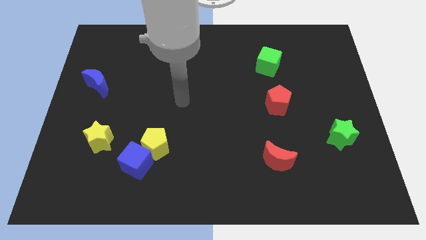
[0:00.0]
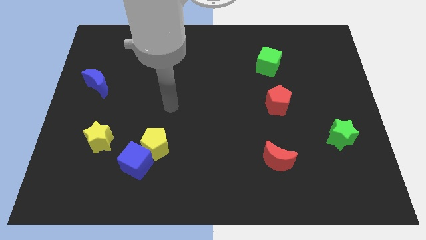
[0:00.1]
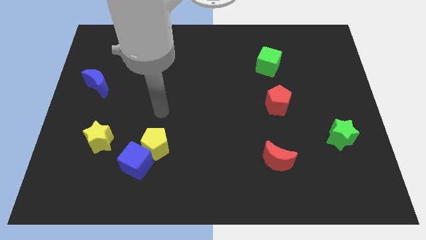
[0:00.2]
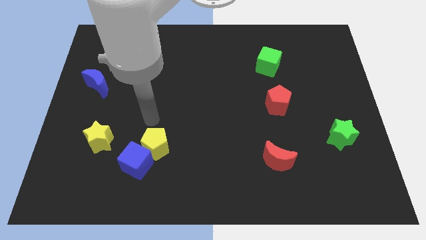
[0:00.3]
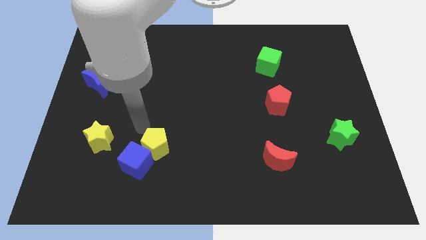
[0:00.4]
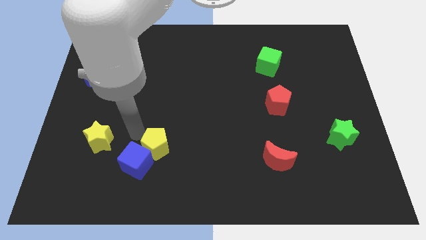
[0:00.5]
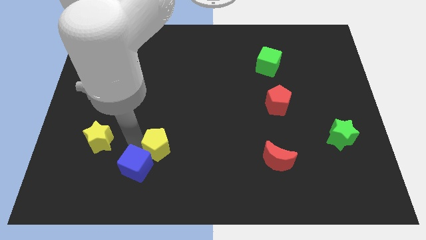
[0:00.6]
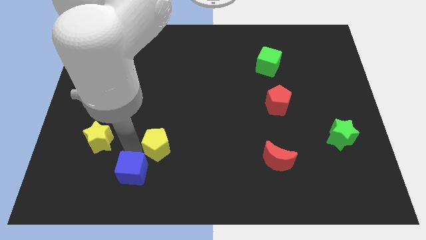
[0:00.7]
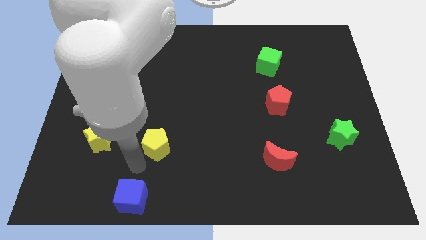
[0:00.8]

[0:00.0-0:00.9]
pull the yellow pentagon apart from the blue cube

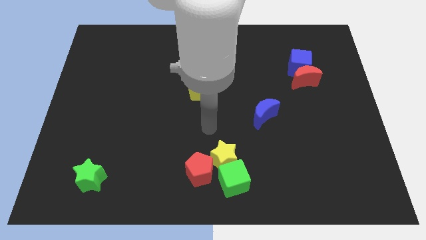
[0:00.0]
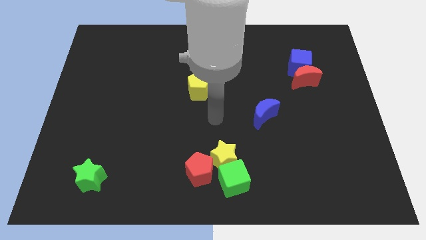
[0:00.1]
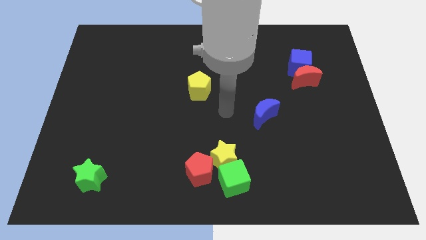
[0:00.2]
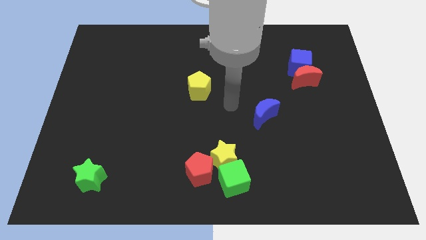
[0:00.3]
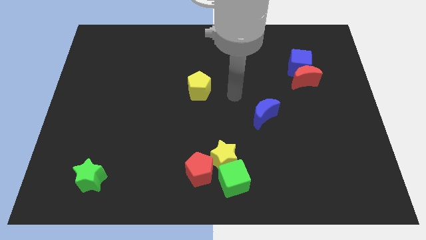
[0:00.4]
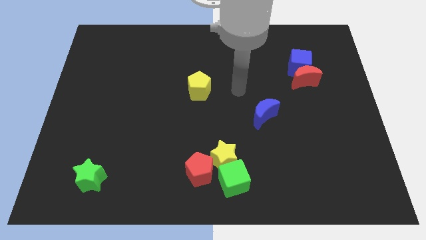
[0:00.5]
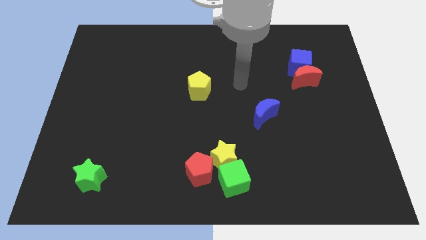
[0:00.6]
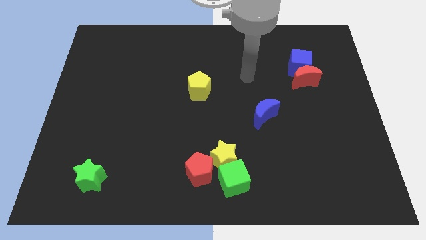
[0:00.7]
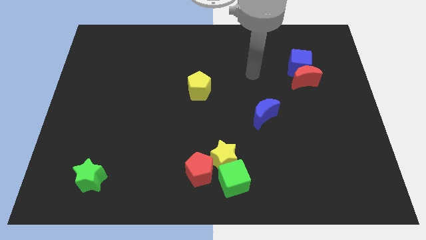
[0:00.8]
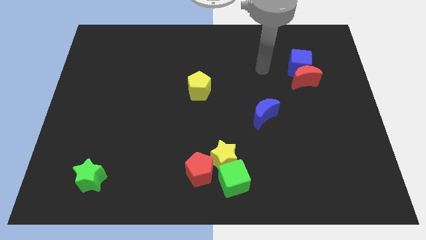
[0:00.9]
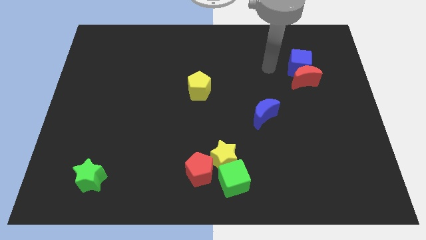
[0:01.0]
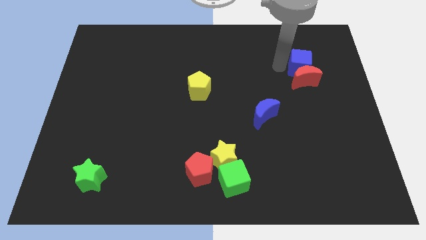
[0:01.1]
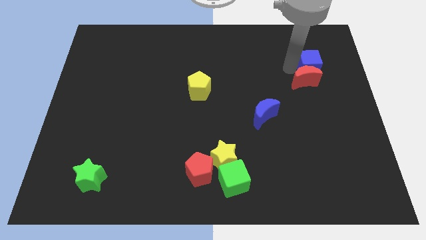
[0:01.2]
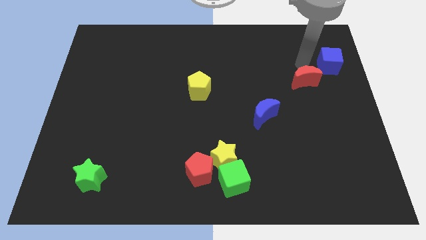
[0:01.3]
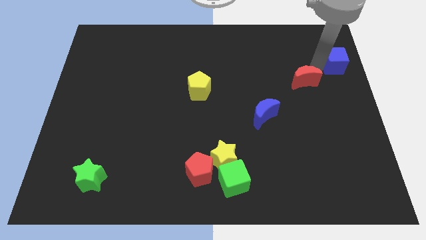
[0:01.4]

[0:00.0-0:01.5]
move the red moon away from the blue cube

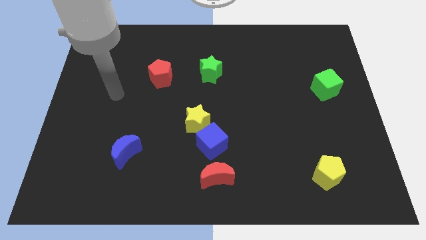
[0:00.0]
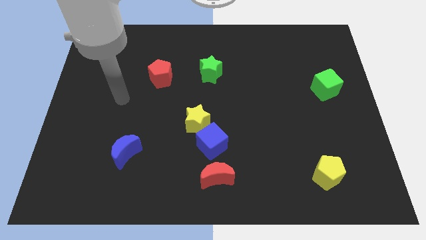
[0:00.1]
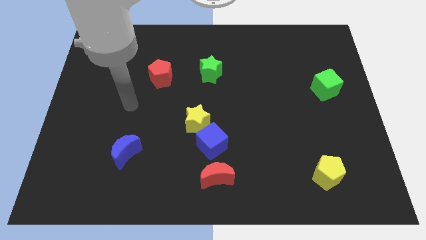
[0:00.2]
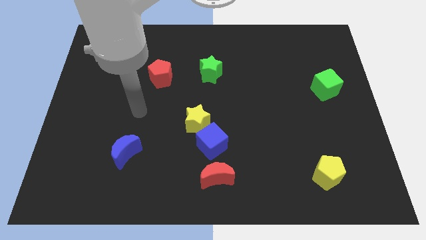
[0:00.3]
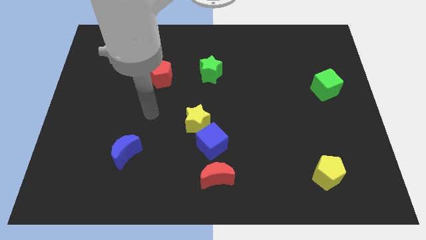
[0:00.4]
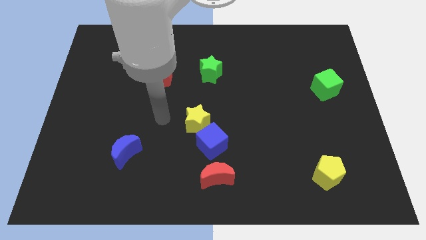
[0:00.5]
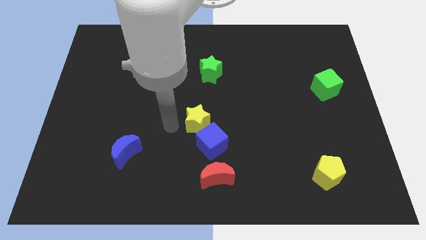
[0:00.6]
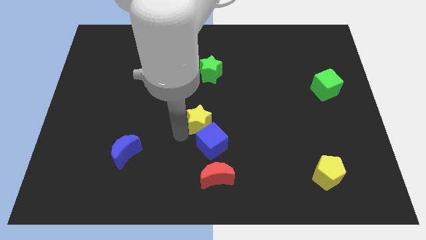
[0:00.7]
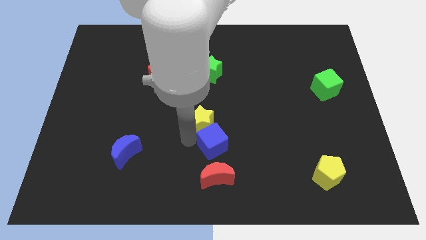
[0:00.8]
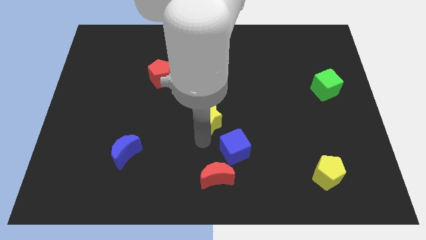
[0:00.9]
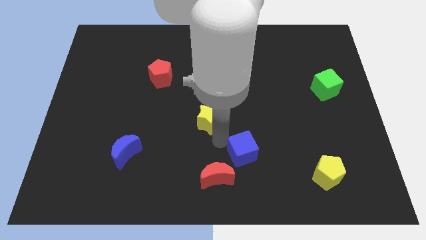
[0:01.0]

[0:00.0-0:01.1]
move the yellow star away from the blue cube

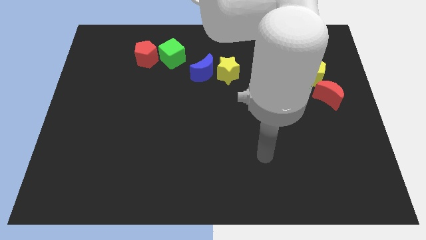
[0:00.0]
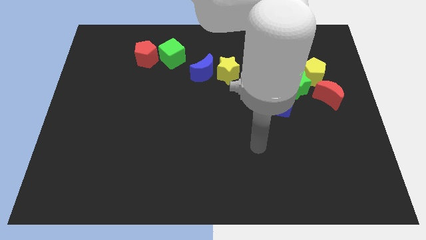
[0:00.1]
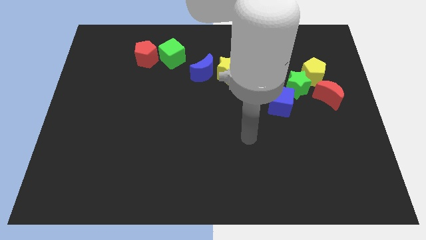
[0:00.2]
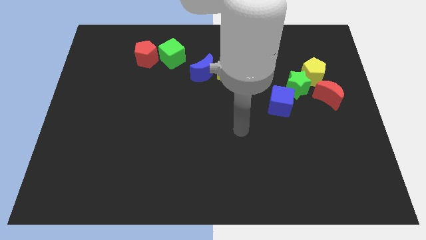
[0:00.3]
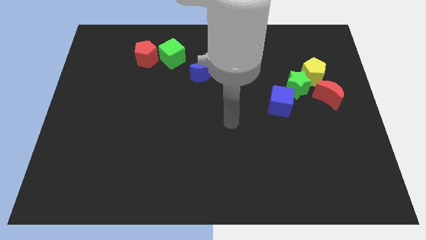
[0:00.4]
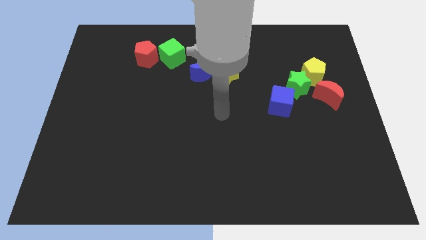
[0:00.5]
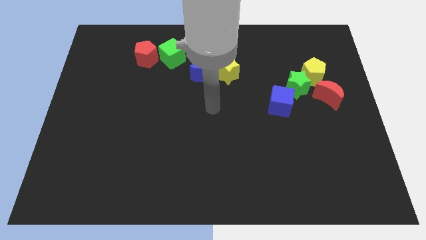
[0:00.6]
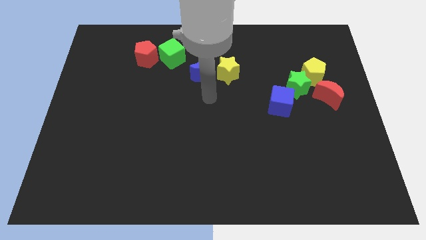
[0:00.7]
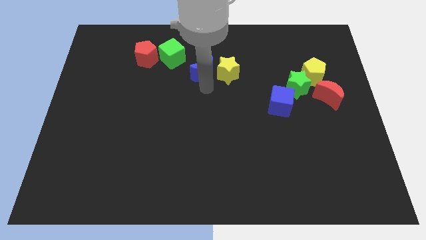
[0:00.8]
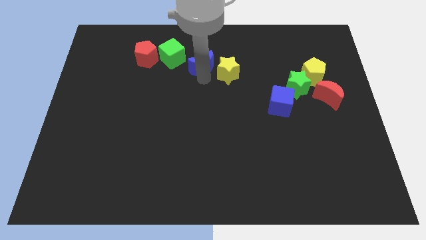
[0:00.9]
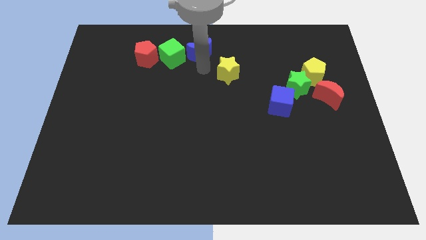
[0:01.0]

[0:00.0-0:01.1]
move the yellow star away from the blue moon

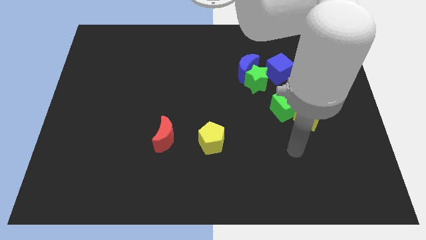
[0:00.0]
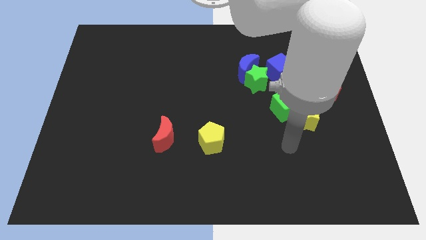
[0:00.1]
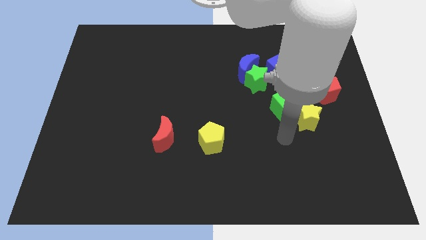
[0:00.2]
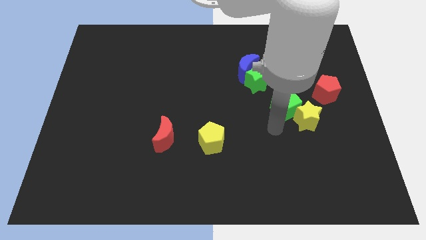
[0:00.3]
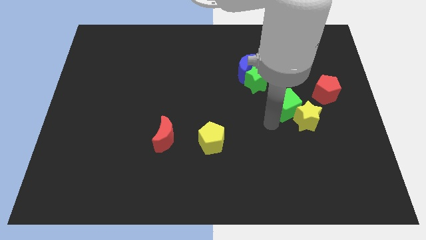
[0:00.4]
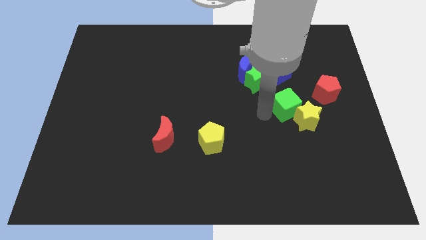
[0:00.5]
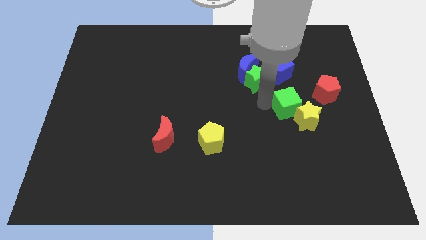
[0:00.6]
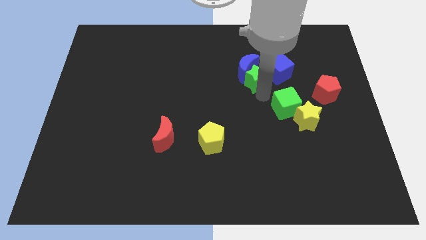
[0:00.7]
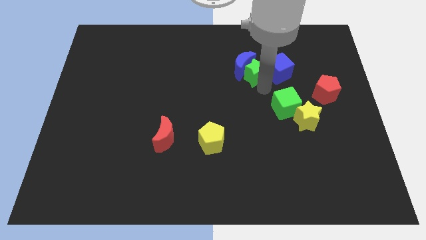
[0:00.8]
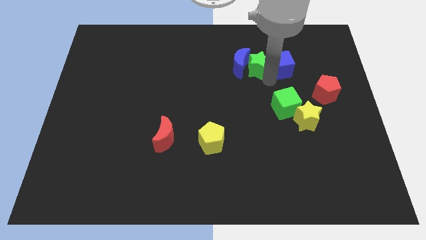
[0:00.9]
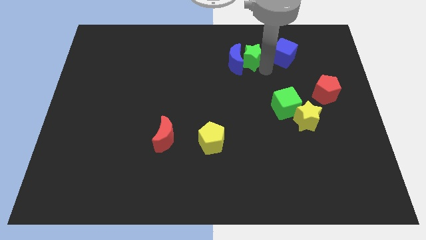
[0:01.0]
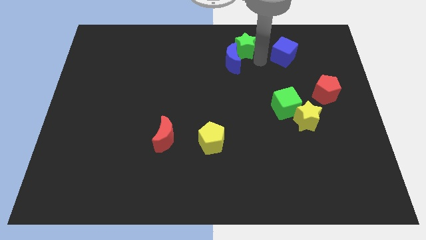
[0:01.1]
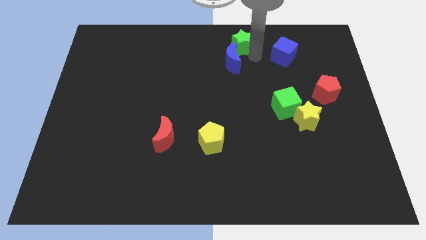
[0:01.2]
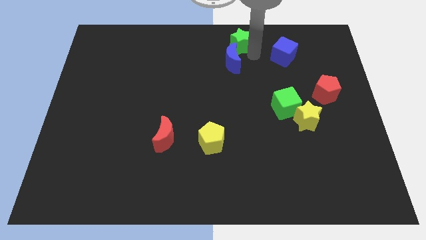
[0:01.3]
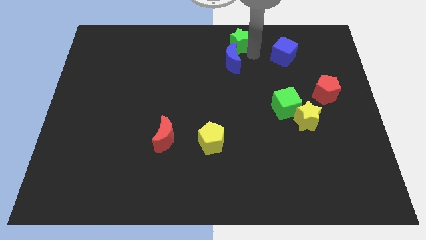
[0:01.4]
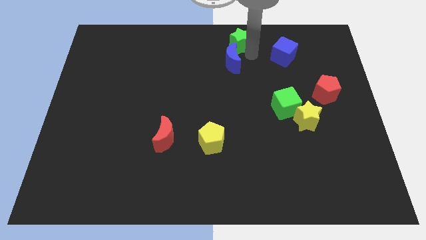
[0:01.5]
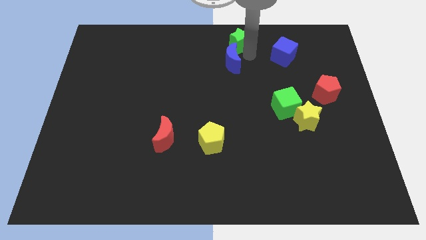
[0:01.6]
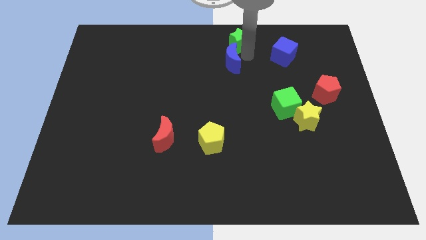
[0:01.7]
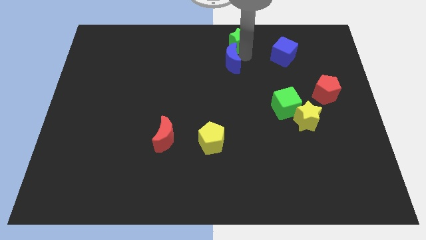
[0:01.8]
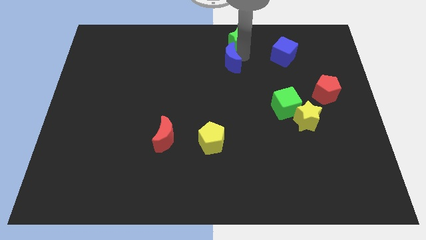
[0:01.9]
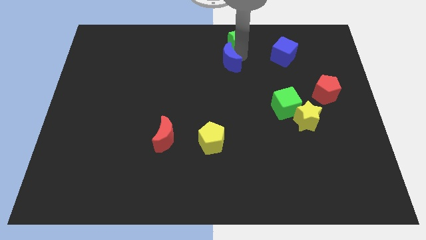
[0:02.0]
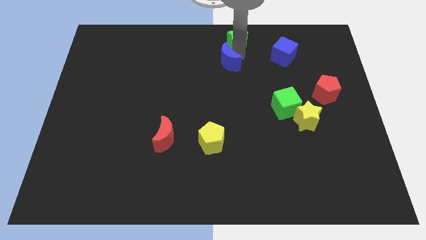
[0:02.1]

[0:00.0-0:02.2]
pull the blue moon apart from the green star and blue cube

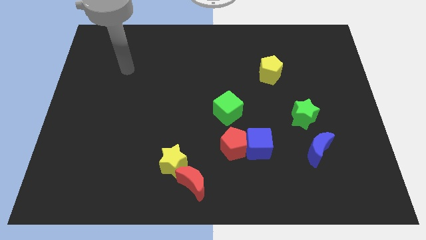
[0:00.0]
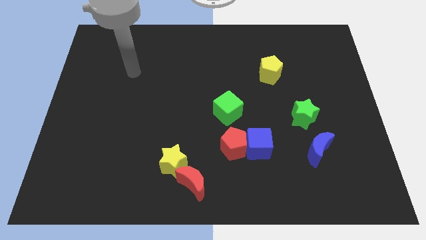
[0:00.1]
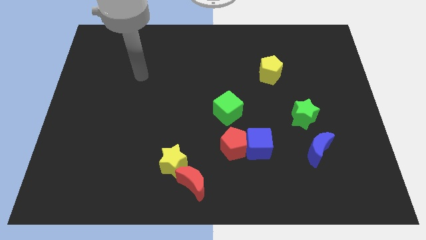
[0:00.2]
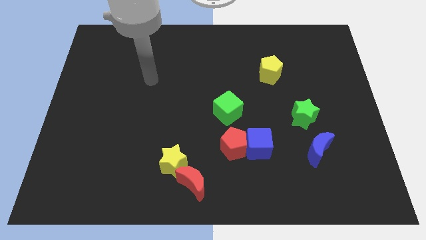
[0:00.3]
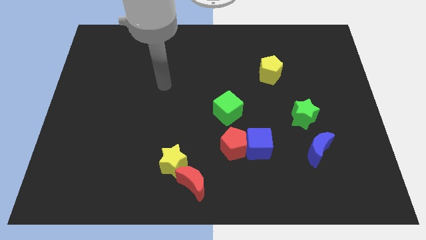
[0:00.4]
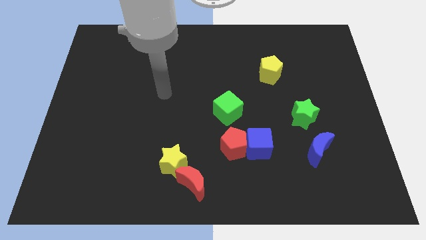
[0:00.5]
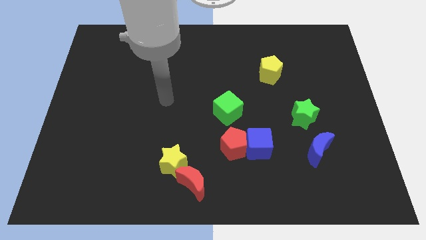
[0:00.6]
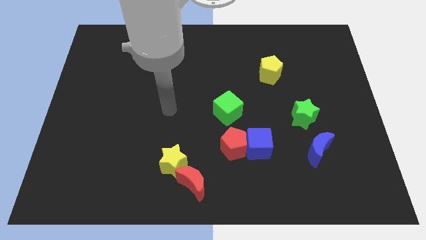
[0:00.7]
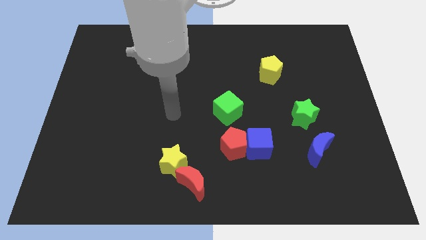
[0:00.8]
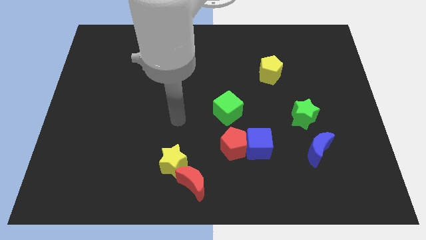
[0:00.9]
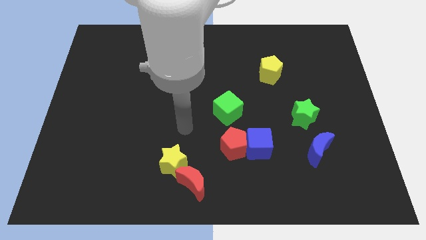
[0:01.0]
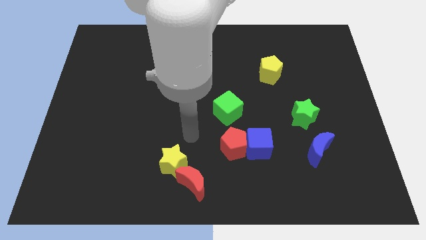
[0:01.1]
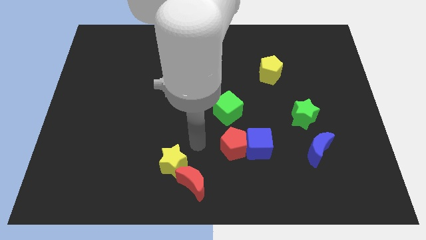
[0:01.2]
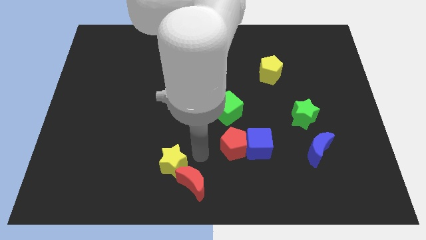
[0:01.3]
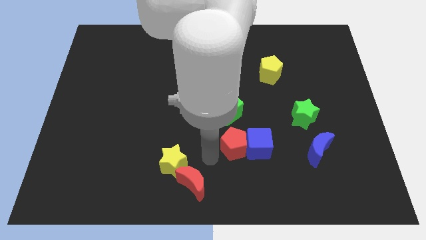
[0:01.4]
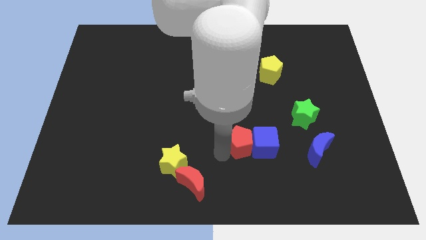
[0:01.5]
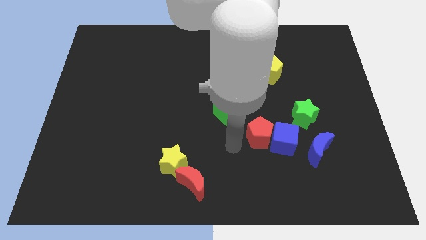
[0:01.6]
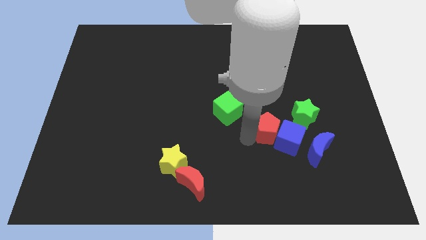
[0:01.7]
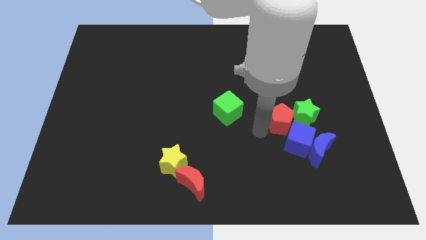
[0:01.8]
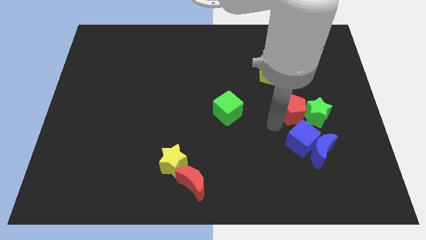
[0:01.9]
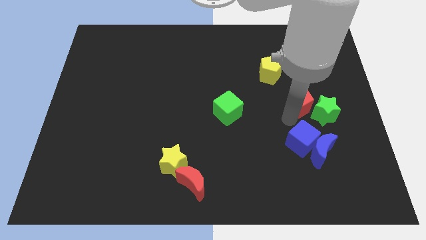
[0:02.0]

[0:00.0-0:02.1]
separate the blue cube from the red pentagon

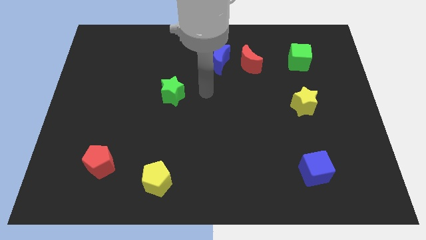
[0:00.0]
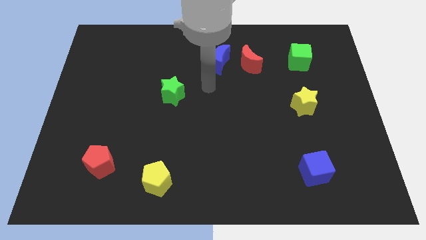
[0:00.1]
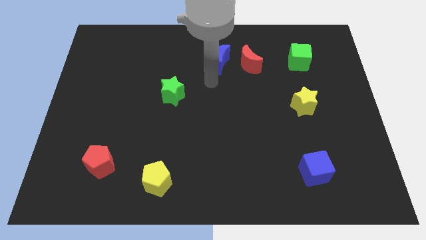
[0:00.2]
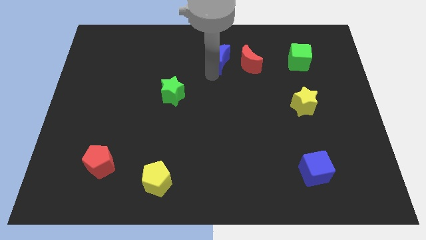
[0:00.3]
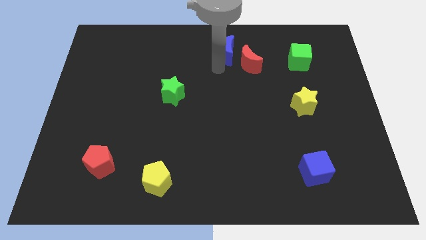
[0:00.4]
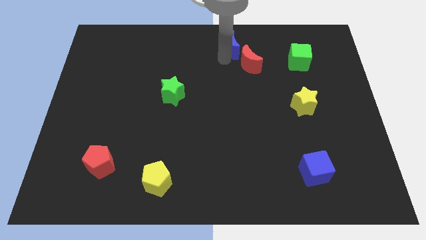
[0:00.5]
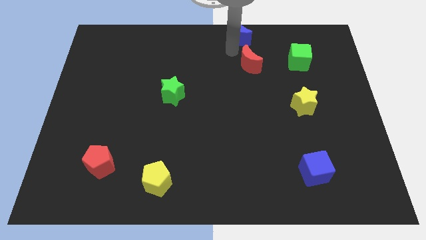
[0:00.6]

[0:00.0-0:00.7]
move the red moon away from the blue moon
